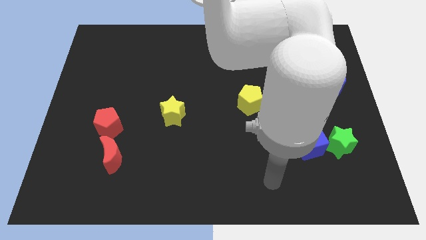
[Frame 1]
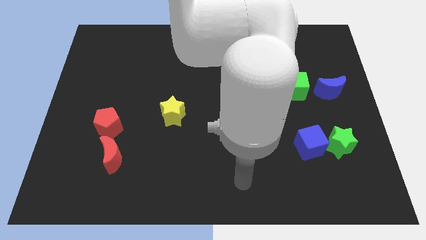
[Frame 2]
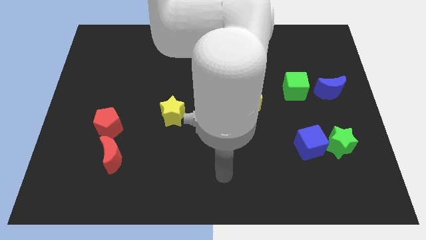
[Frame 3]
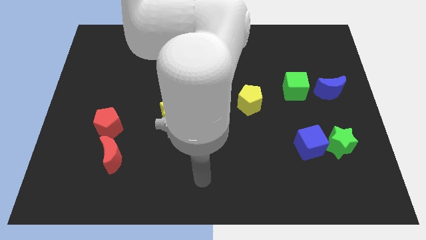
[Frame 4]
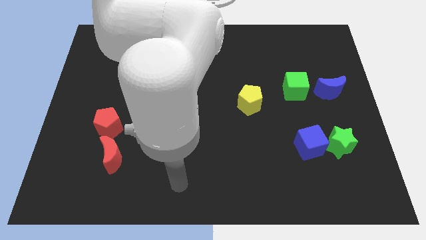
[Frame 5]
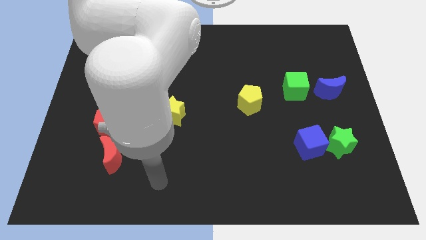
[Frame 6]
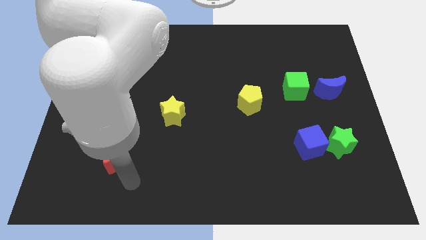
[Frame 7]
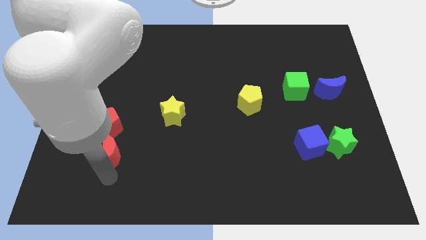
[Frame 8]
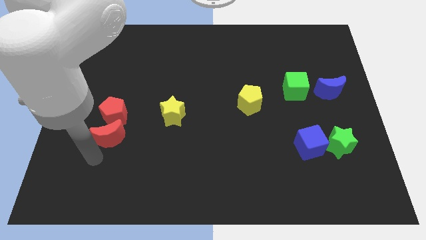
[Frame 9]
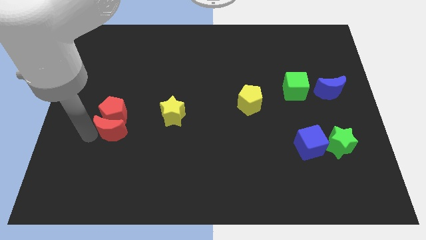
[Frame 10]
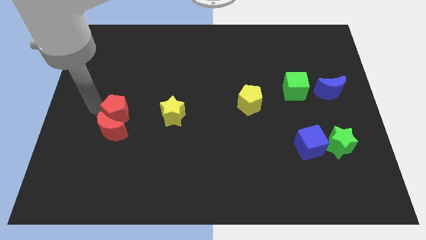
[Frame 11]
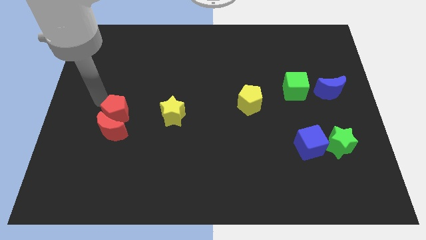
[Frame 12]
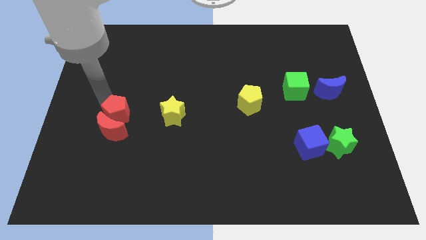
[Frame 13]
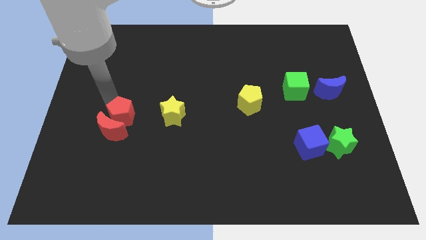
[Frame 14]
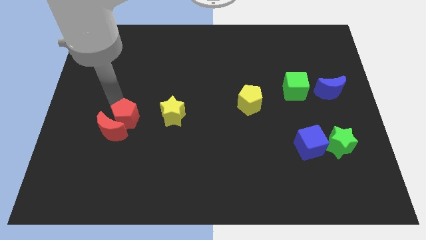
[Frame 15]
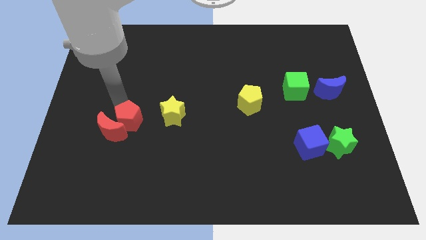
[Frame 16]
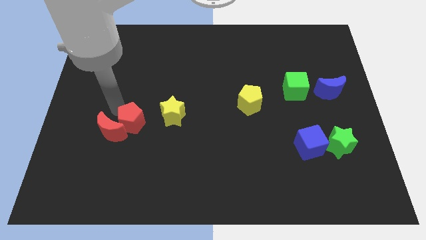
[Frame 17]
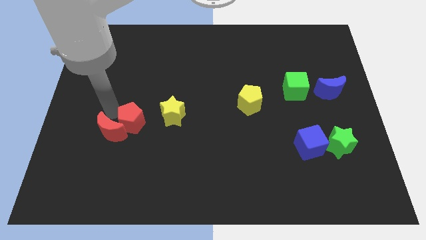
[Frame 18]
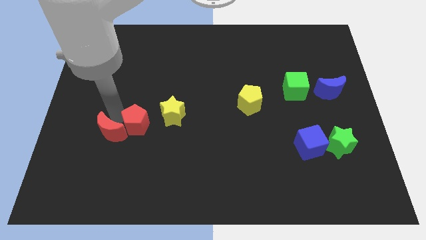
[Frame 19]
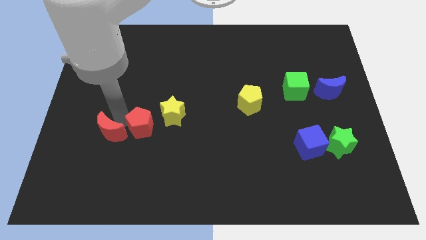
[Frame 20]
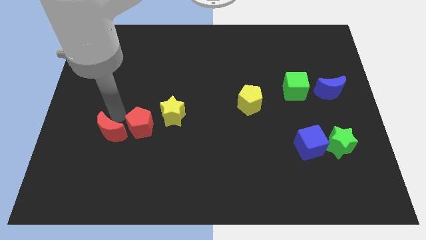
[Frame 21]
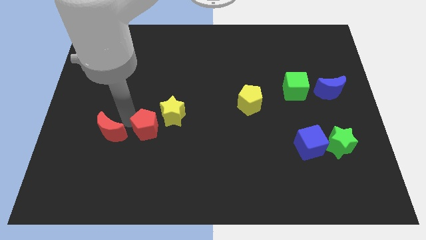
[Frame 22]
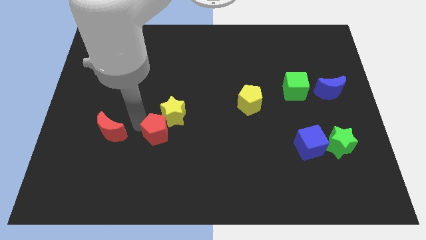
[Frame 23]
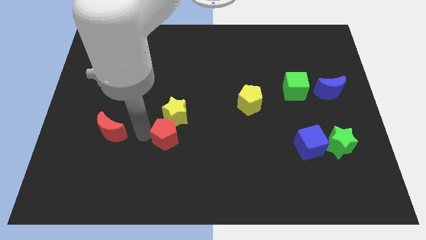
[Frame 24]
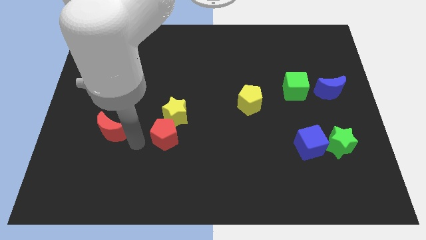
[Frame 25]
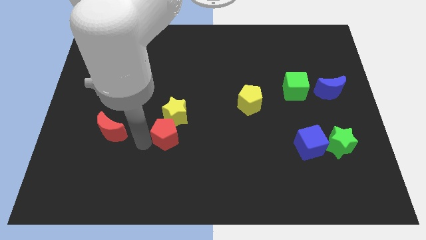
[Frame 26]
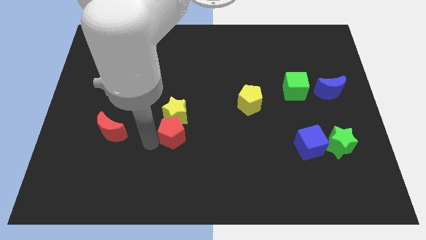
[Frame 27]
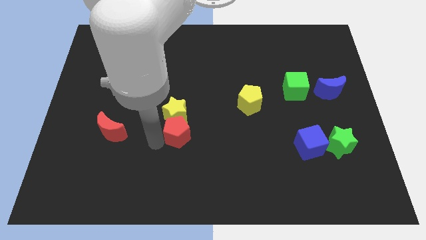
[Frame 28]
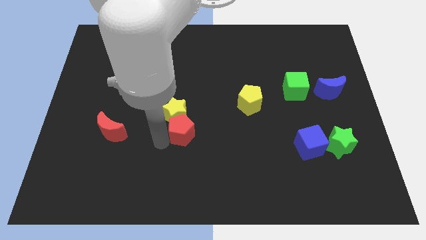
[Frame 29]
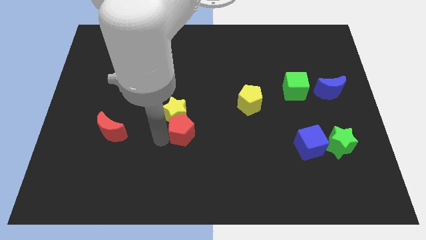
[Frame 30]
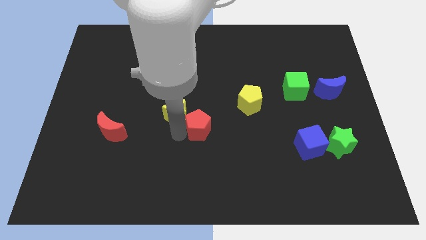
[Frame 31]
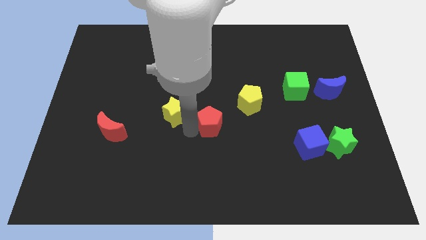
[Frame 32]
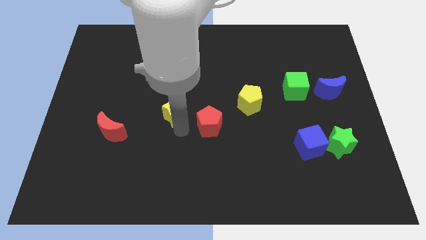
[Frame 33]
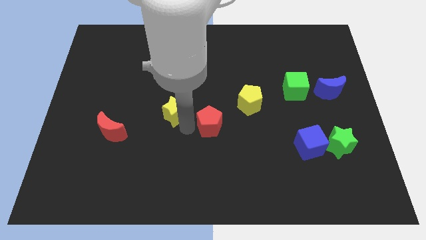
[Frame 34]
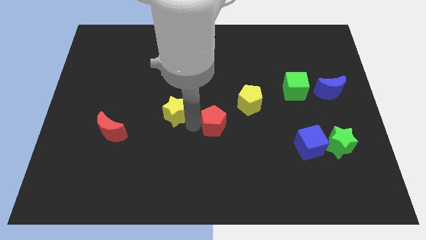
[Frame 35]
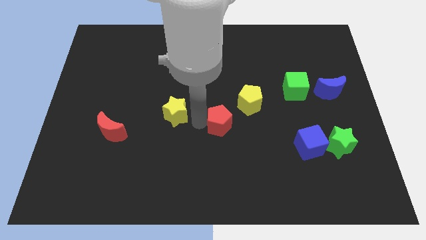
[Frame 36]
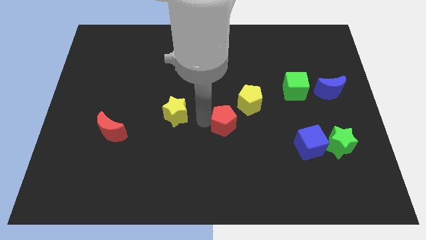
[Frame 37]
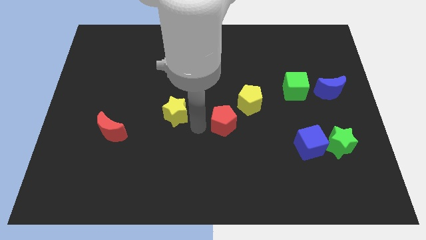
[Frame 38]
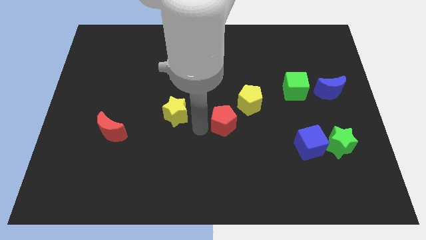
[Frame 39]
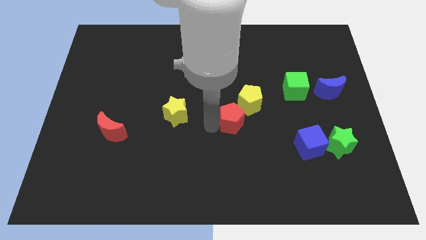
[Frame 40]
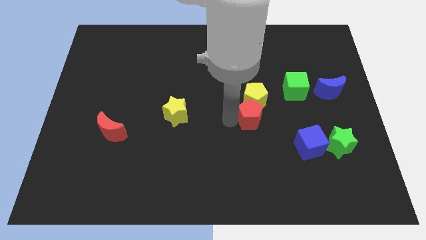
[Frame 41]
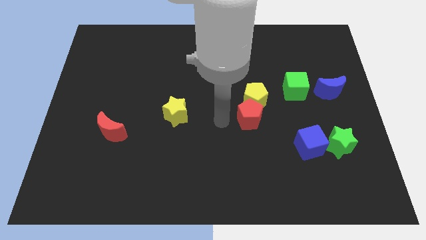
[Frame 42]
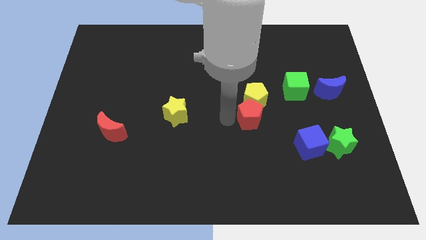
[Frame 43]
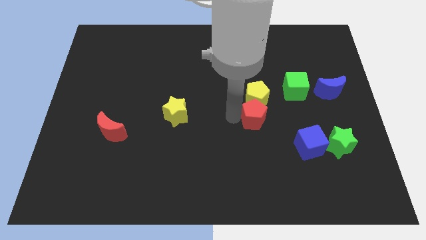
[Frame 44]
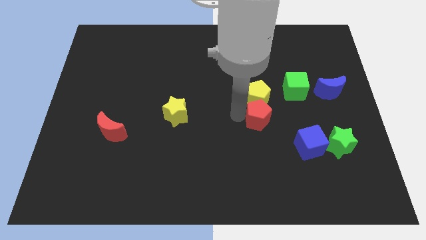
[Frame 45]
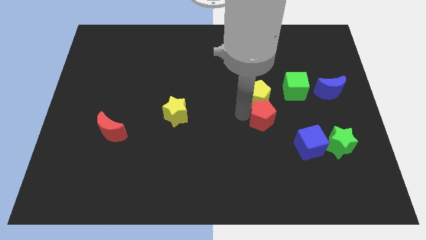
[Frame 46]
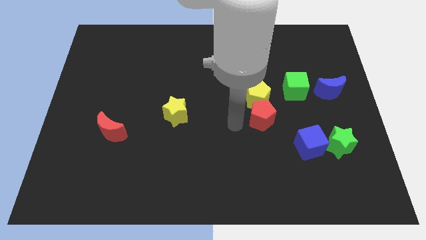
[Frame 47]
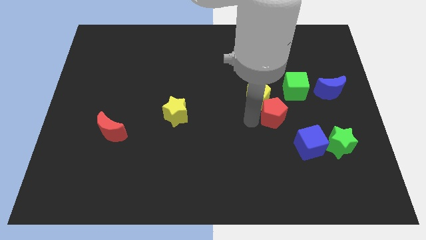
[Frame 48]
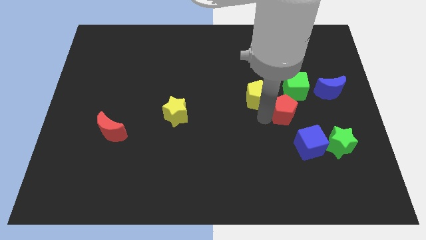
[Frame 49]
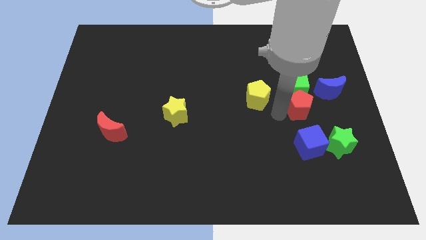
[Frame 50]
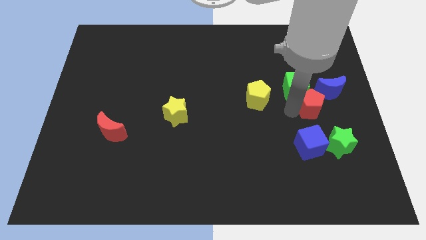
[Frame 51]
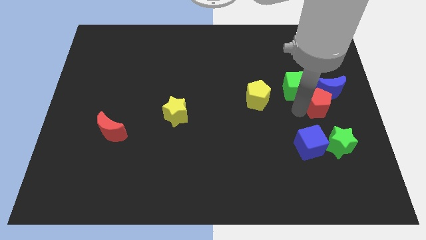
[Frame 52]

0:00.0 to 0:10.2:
push the red pentagon towards the blue moon

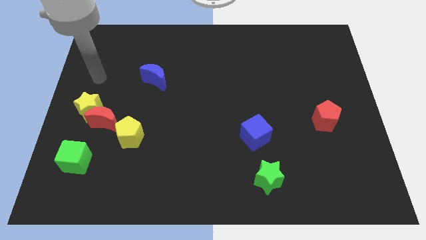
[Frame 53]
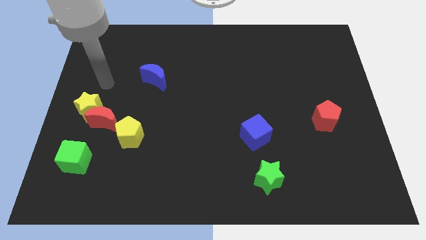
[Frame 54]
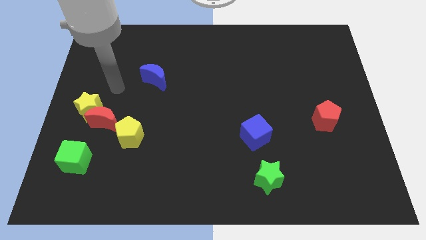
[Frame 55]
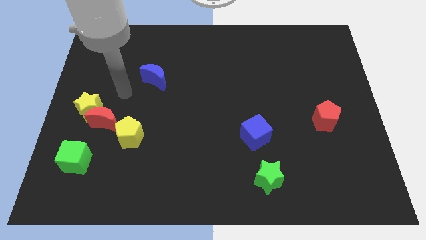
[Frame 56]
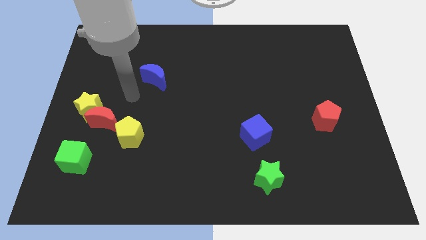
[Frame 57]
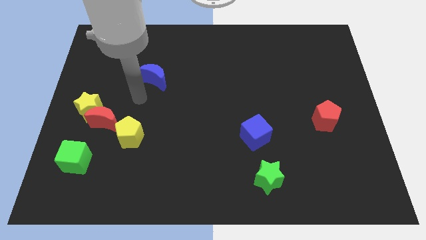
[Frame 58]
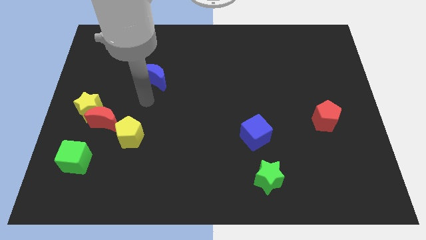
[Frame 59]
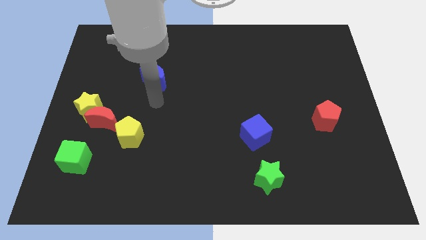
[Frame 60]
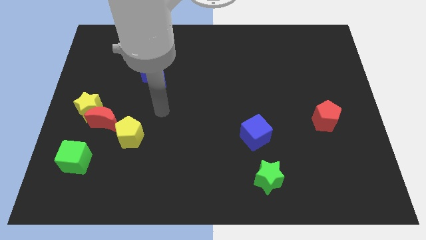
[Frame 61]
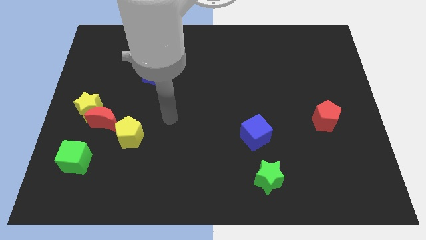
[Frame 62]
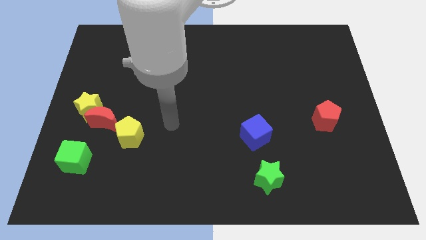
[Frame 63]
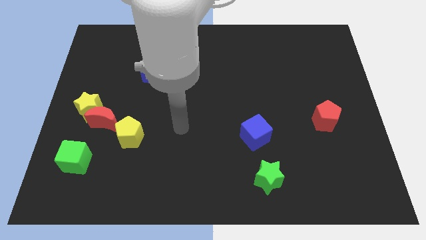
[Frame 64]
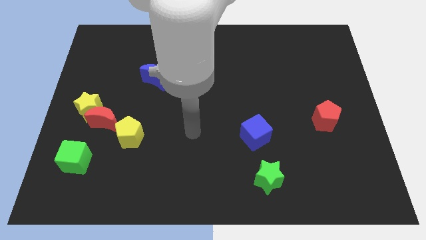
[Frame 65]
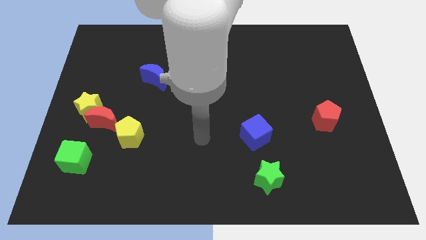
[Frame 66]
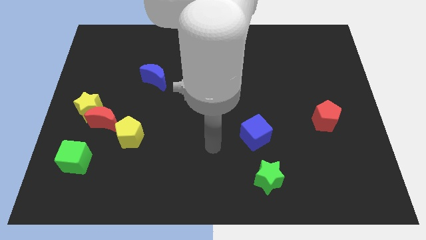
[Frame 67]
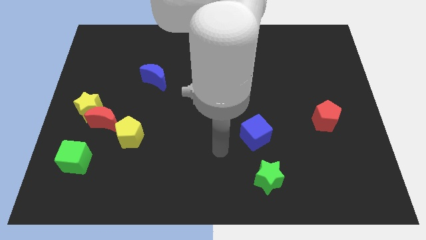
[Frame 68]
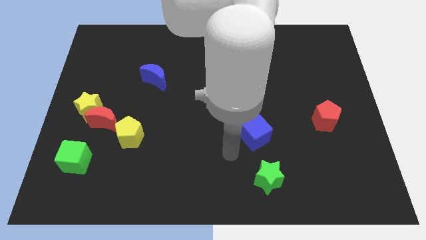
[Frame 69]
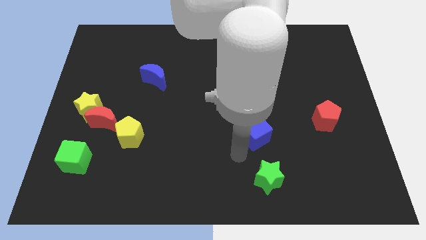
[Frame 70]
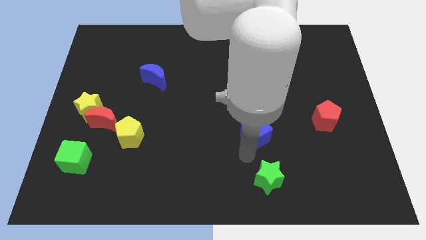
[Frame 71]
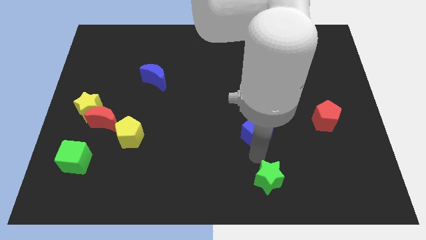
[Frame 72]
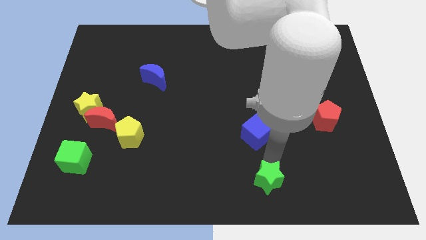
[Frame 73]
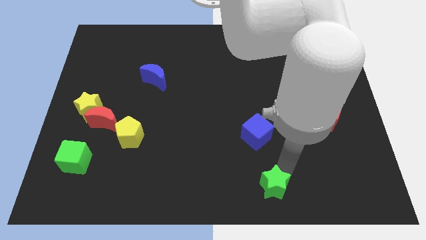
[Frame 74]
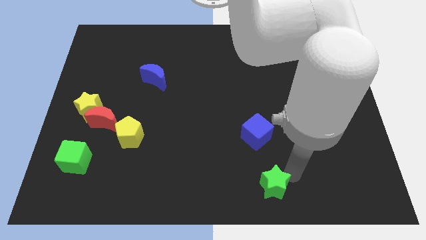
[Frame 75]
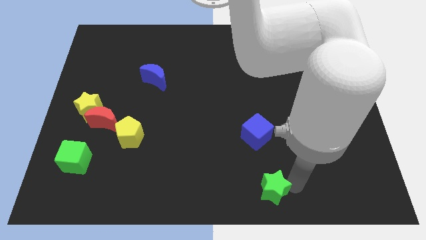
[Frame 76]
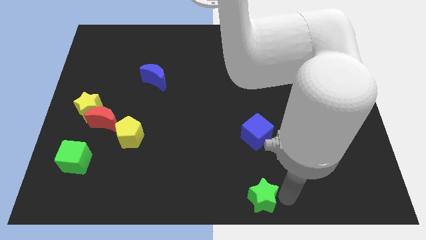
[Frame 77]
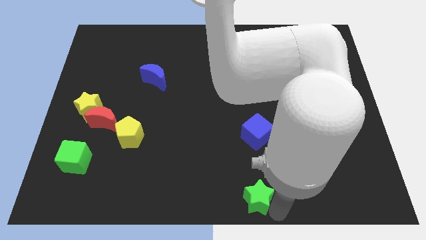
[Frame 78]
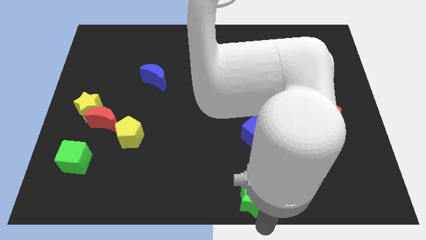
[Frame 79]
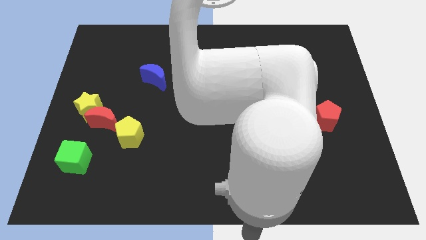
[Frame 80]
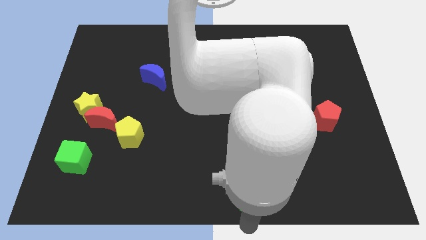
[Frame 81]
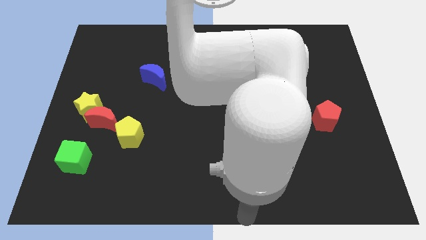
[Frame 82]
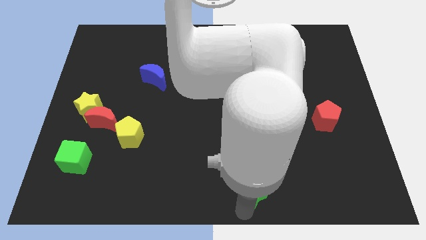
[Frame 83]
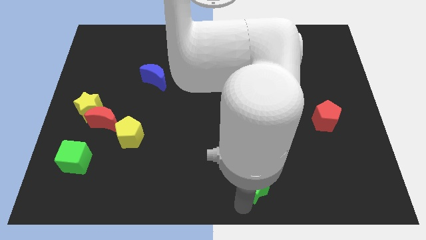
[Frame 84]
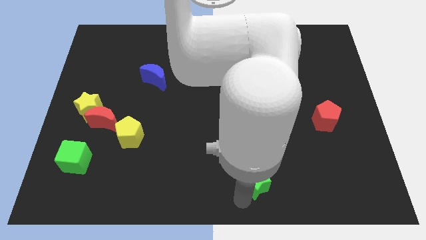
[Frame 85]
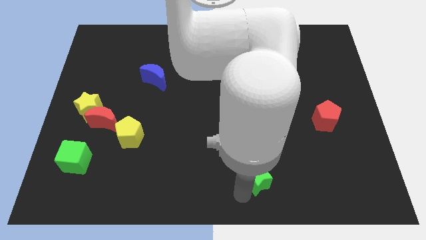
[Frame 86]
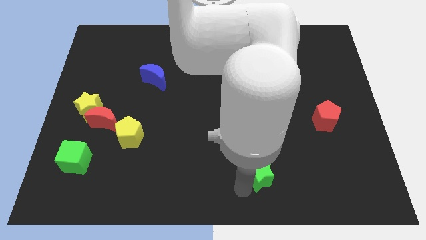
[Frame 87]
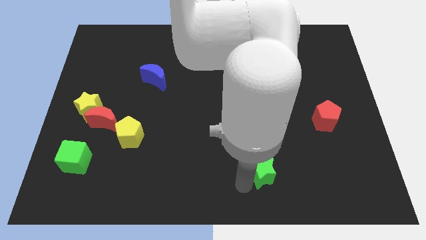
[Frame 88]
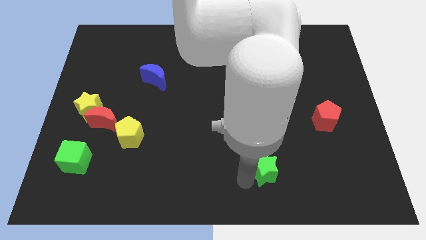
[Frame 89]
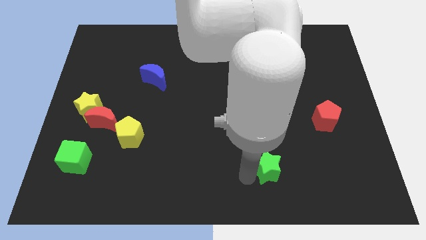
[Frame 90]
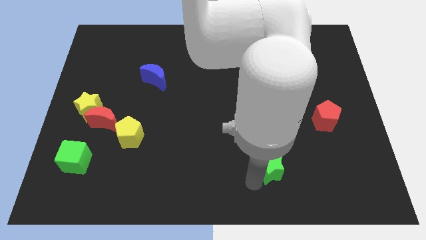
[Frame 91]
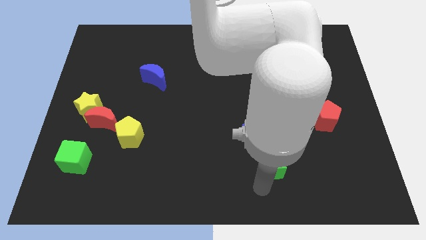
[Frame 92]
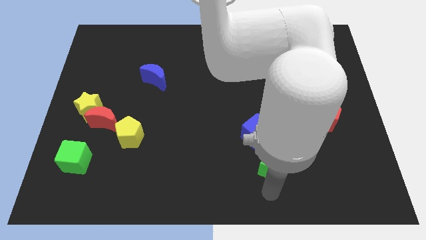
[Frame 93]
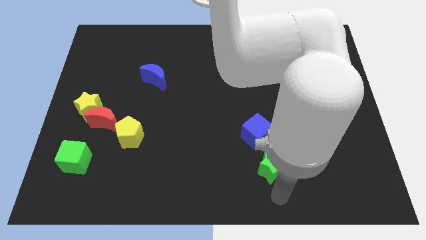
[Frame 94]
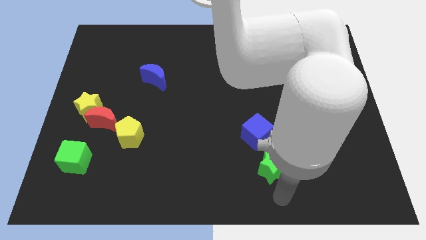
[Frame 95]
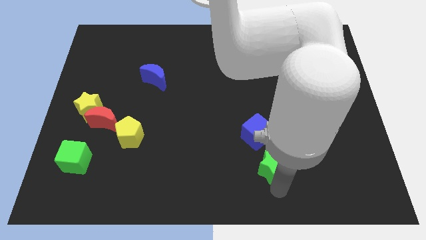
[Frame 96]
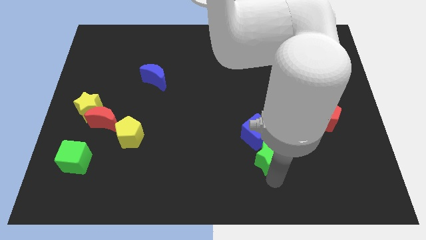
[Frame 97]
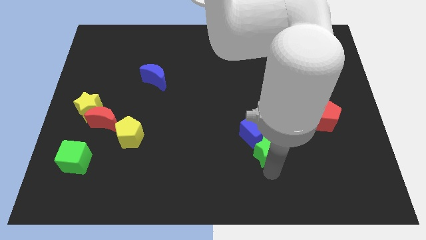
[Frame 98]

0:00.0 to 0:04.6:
push the green star towards the blue cube
